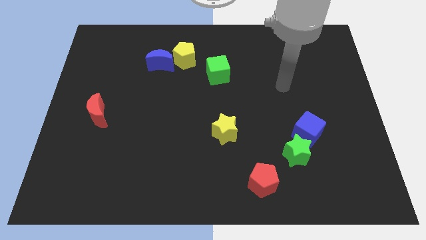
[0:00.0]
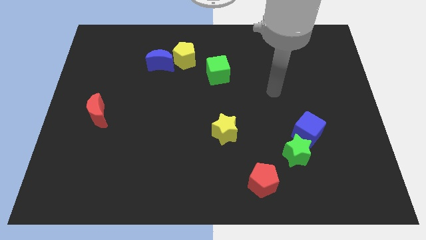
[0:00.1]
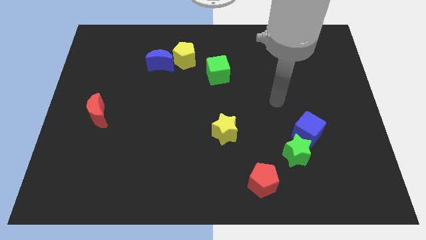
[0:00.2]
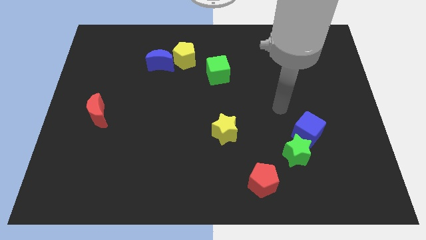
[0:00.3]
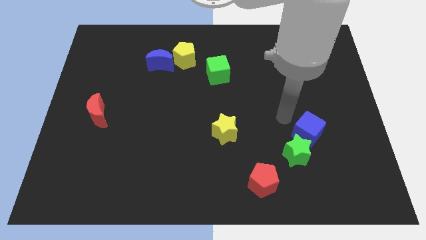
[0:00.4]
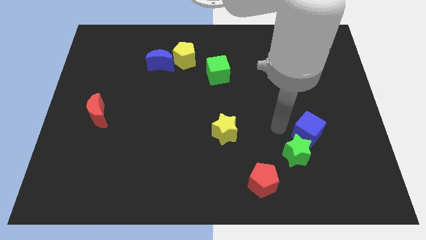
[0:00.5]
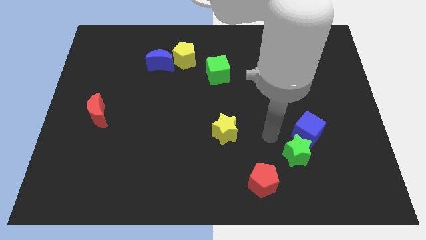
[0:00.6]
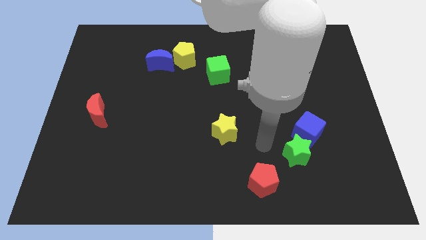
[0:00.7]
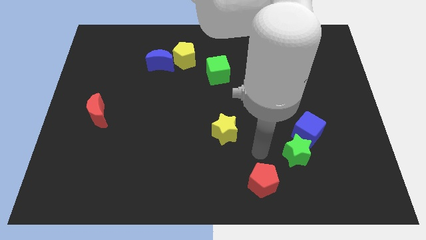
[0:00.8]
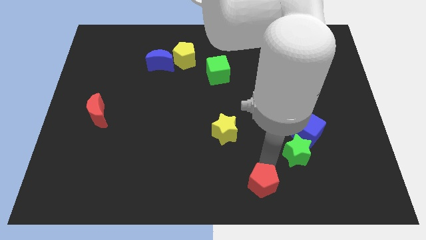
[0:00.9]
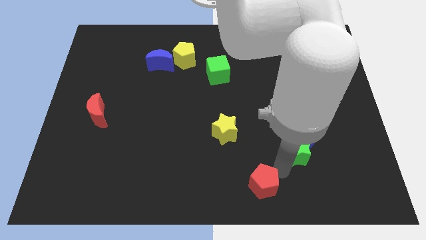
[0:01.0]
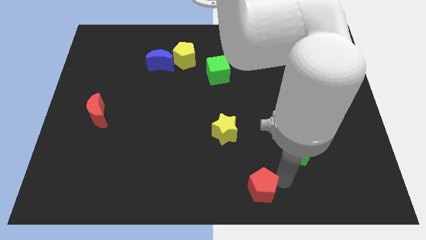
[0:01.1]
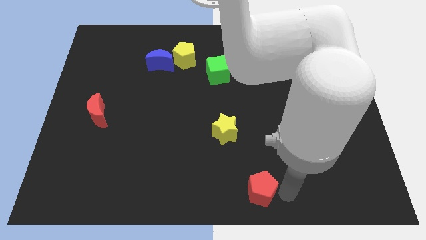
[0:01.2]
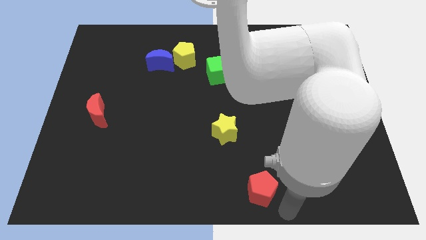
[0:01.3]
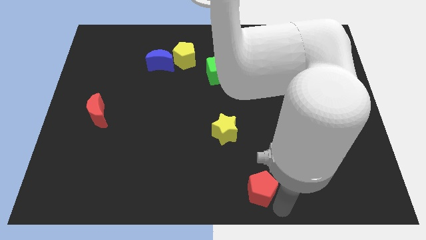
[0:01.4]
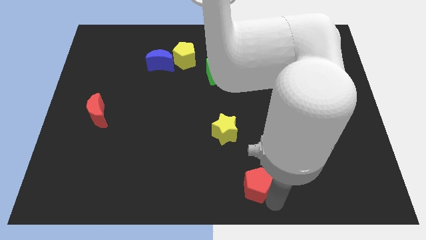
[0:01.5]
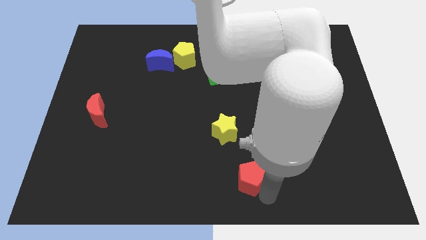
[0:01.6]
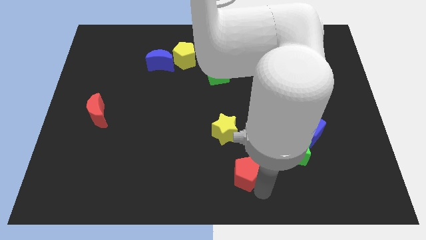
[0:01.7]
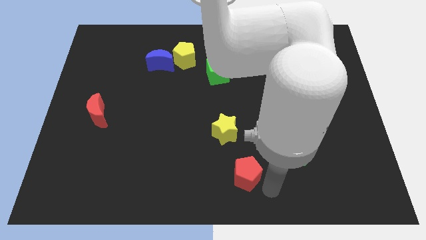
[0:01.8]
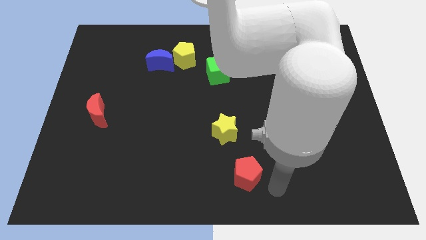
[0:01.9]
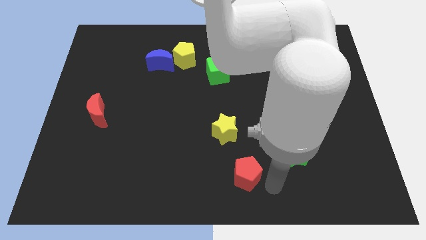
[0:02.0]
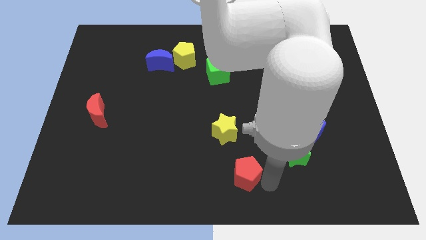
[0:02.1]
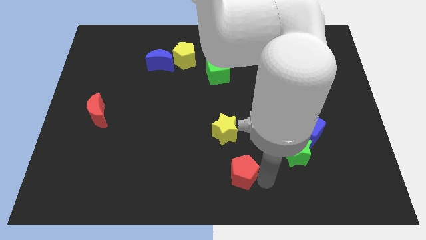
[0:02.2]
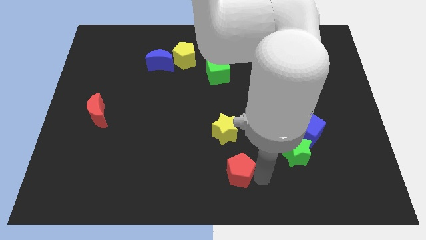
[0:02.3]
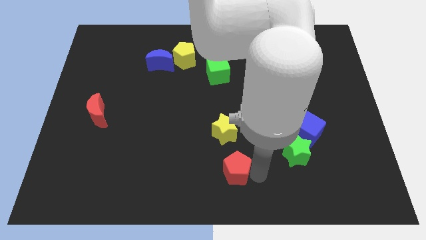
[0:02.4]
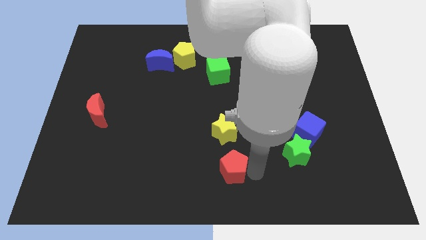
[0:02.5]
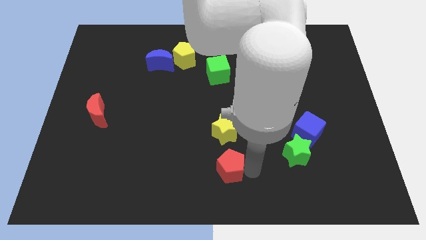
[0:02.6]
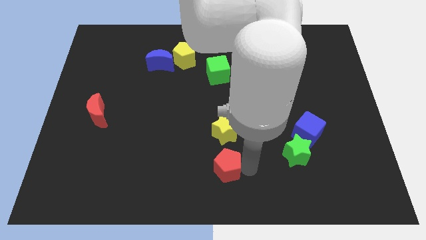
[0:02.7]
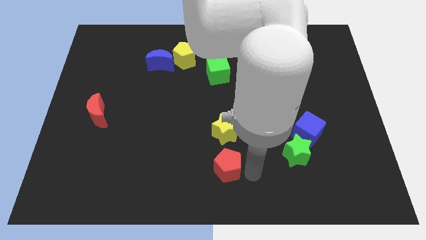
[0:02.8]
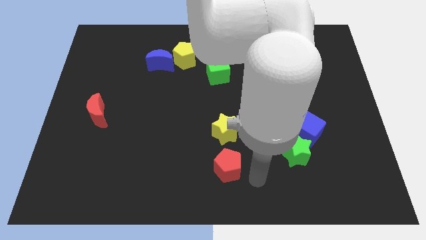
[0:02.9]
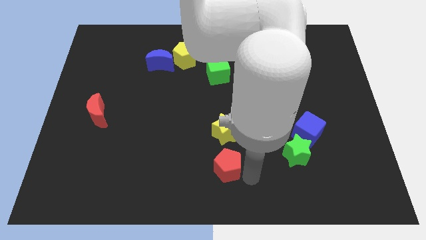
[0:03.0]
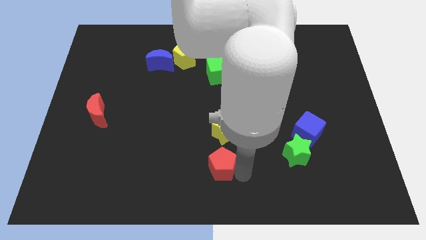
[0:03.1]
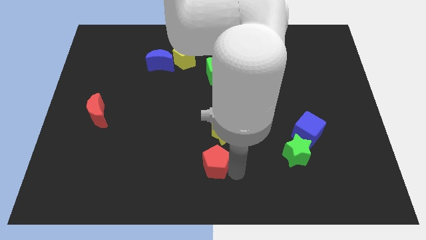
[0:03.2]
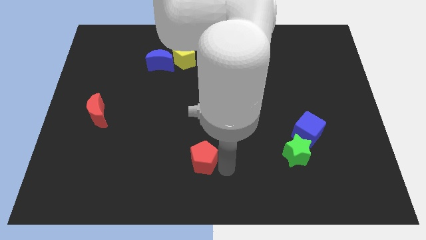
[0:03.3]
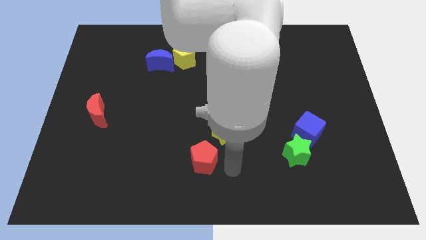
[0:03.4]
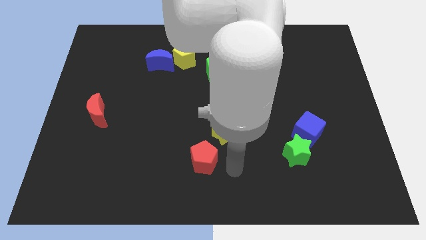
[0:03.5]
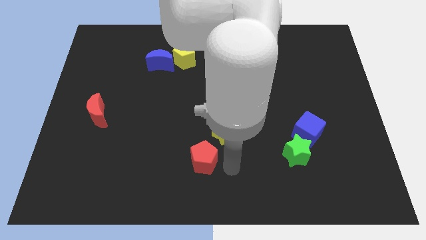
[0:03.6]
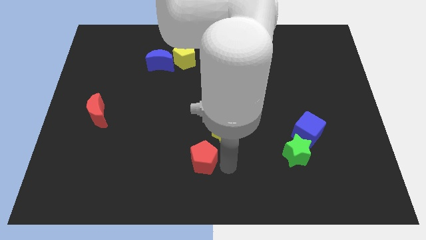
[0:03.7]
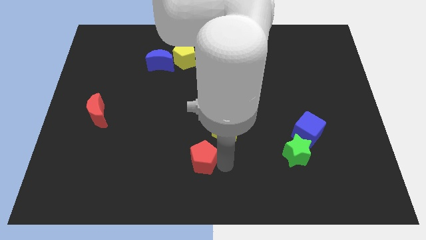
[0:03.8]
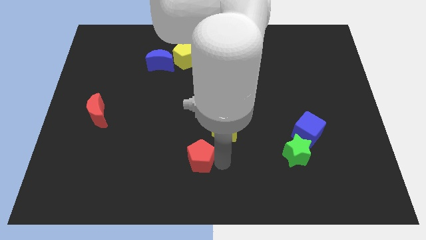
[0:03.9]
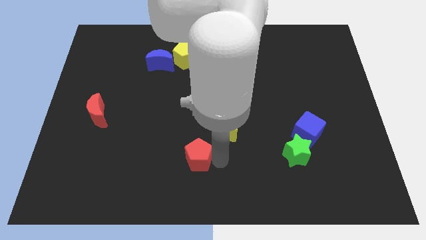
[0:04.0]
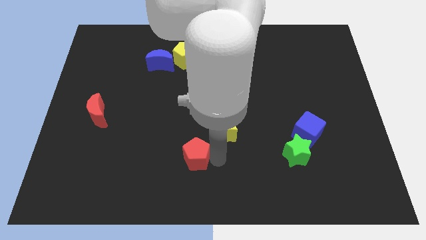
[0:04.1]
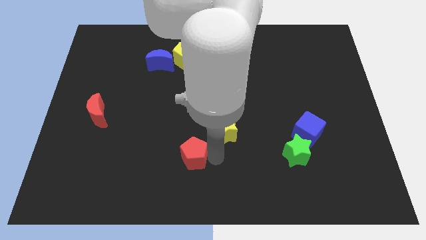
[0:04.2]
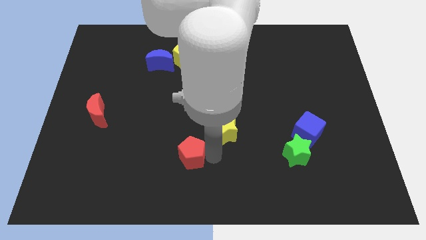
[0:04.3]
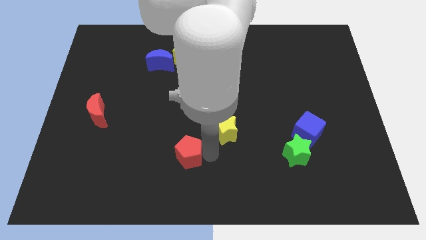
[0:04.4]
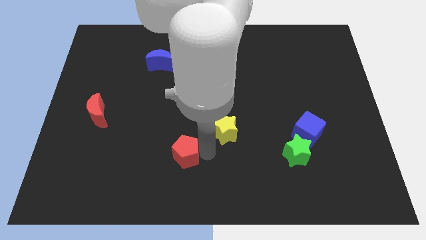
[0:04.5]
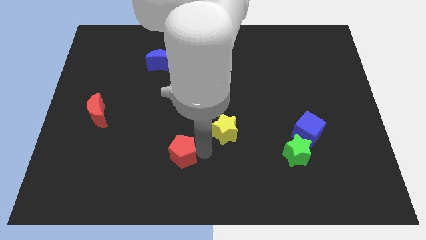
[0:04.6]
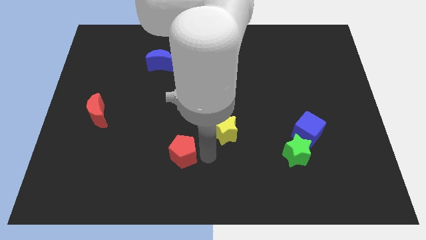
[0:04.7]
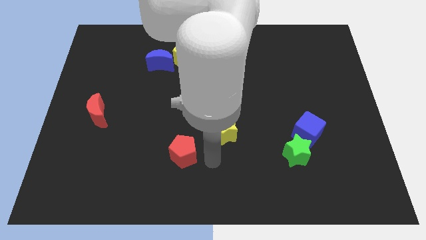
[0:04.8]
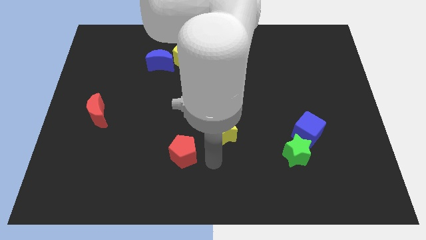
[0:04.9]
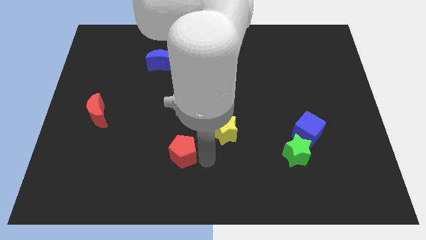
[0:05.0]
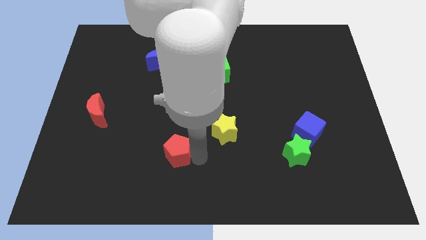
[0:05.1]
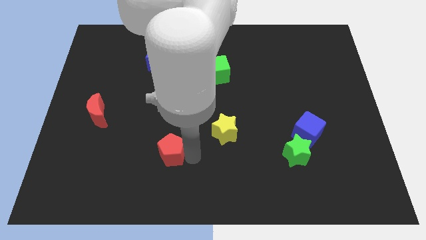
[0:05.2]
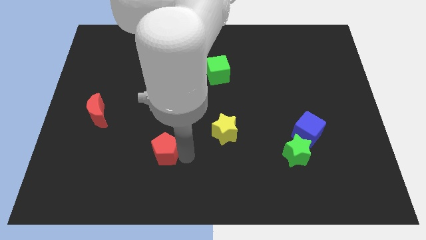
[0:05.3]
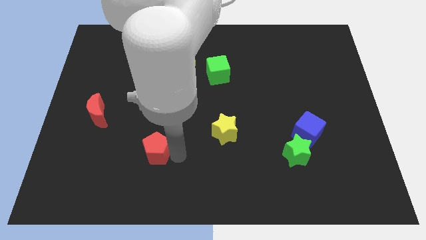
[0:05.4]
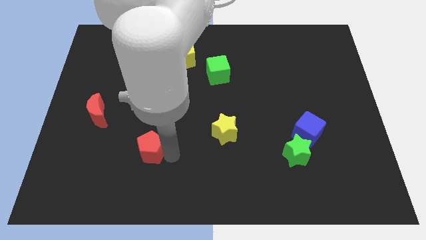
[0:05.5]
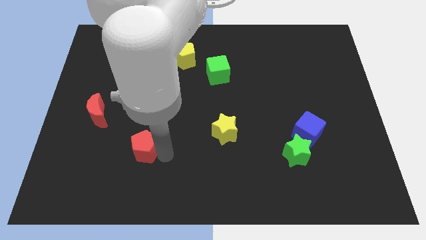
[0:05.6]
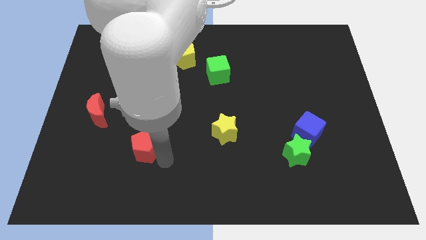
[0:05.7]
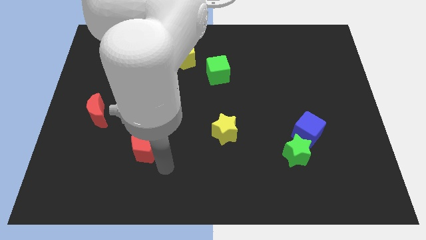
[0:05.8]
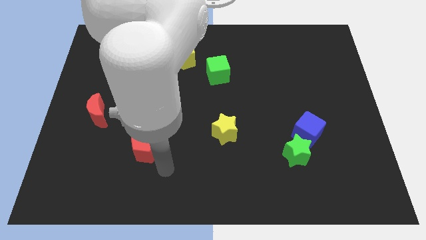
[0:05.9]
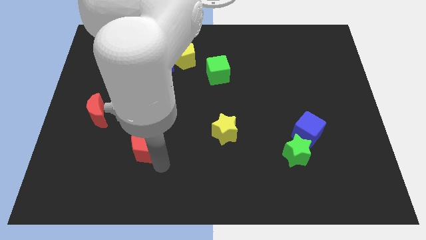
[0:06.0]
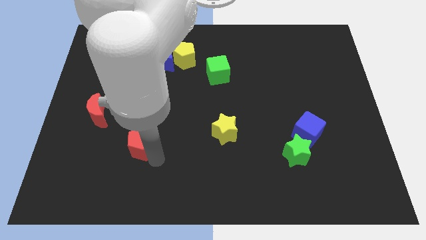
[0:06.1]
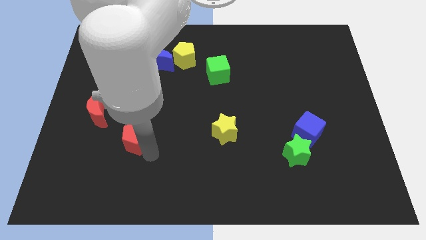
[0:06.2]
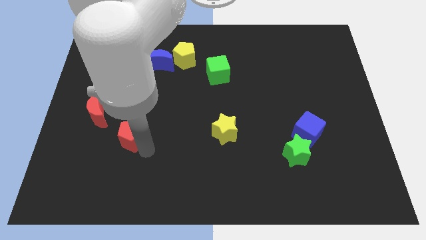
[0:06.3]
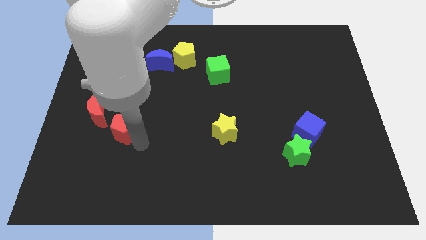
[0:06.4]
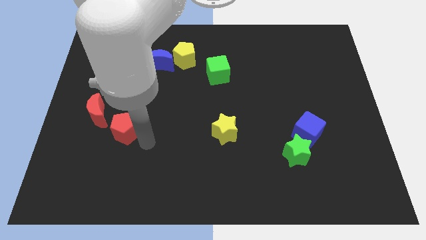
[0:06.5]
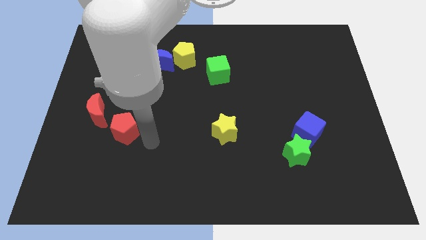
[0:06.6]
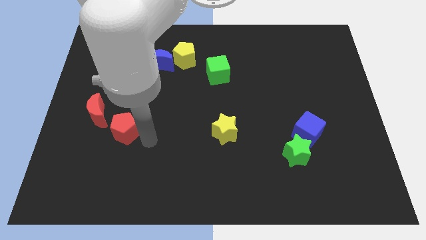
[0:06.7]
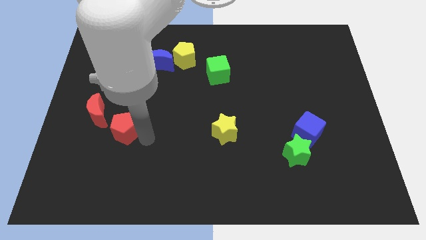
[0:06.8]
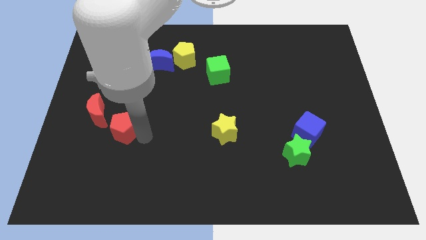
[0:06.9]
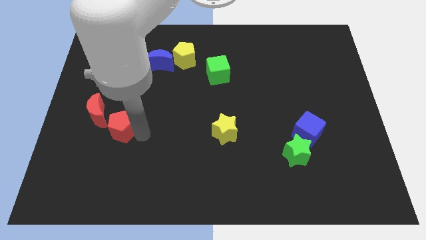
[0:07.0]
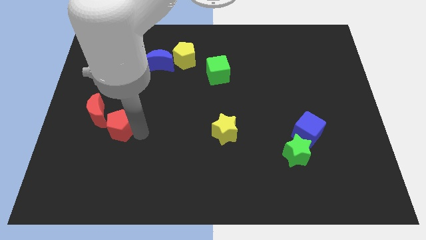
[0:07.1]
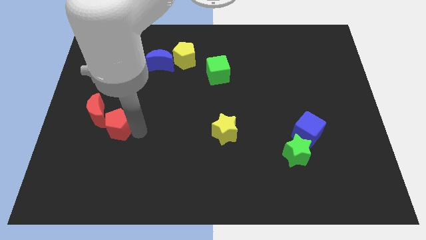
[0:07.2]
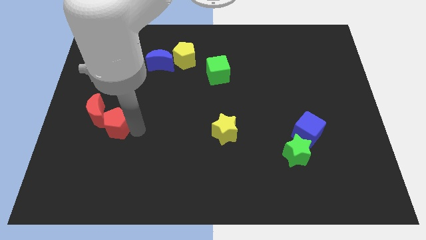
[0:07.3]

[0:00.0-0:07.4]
move the red pentagon next to the red moon
